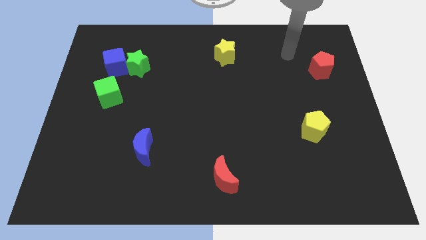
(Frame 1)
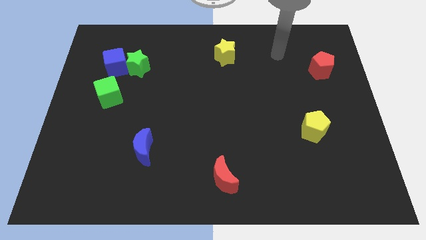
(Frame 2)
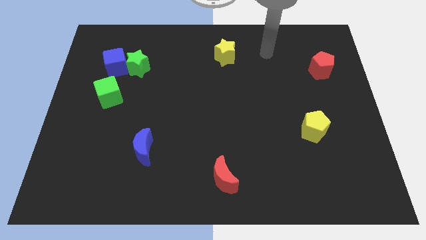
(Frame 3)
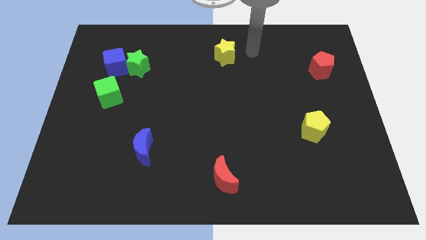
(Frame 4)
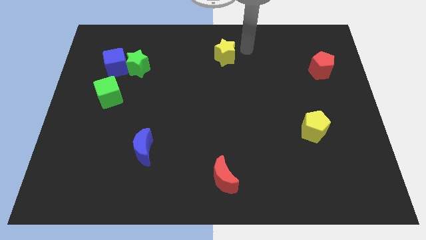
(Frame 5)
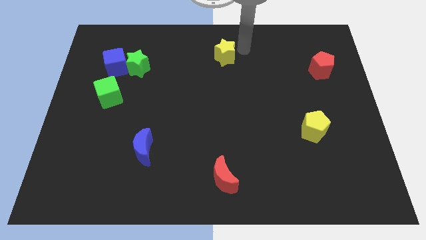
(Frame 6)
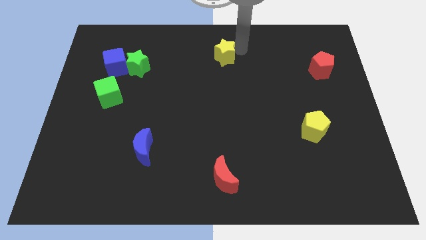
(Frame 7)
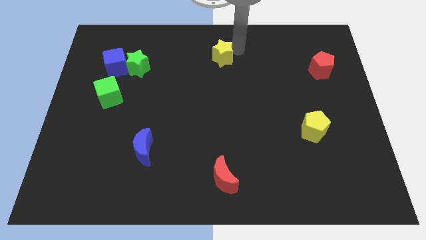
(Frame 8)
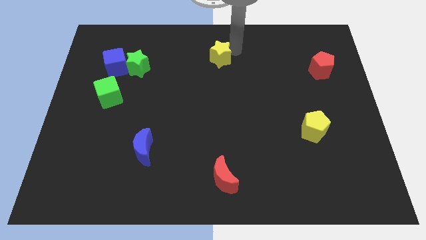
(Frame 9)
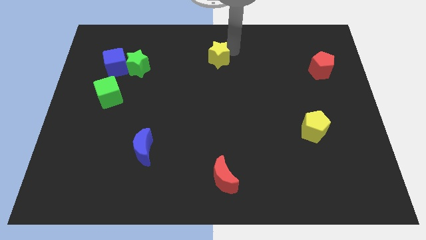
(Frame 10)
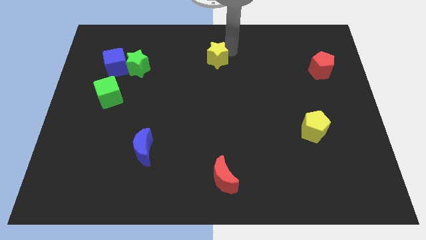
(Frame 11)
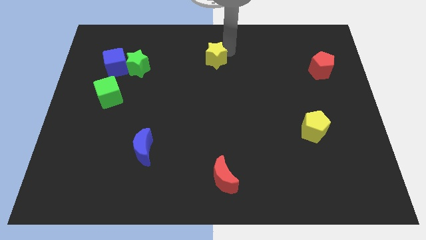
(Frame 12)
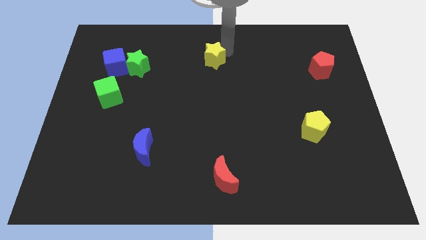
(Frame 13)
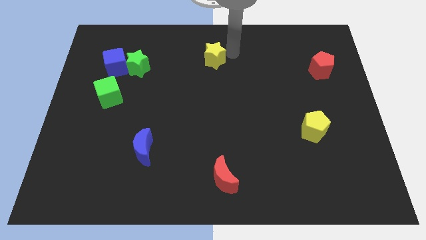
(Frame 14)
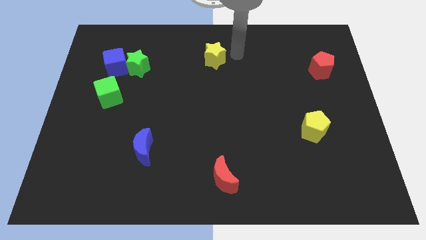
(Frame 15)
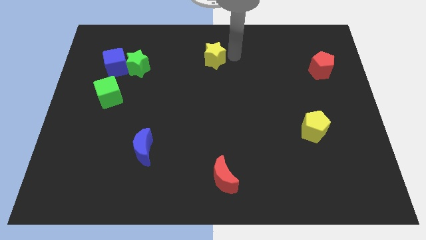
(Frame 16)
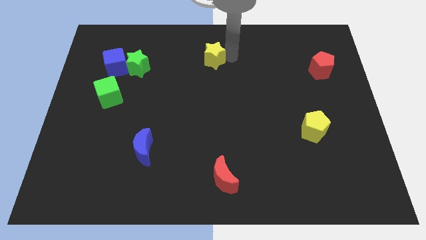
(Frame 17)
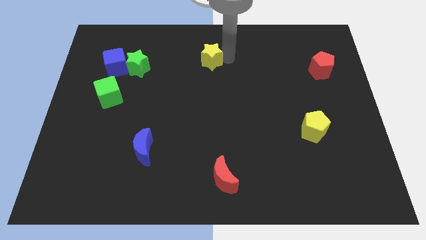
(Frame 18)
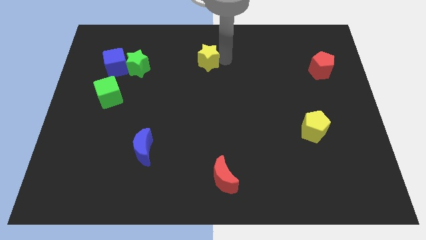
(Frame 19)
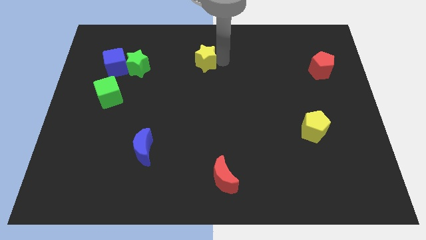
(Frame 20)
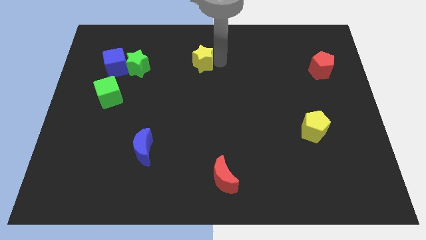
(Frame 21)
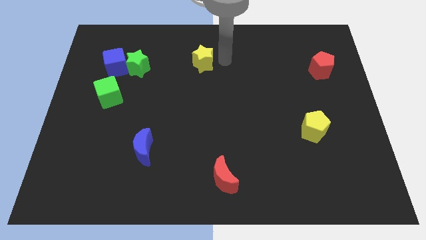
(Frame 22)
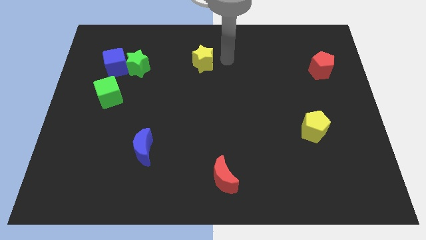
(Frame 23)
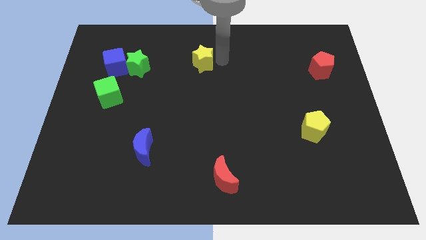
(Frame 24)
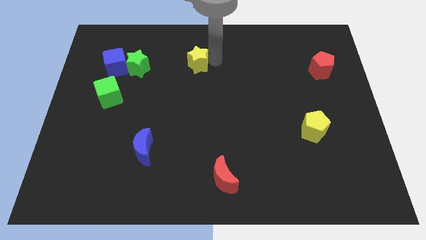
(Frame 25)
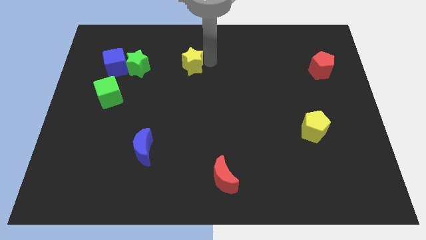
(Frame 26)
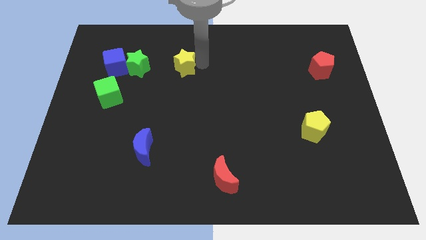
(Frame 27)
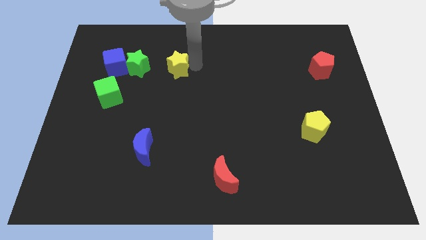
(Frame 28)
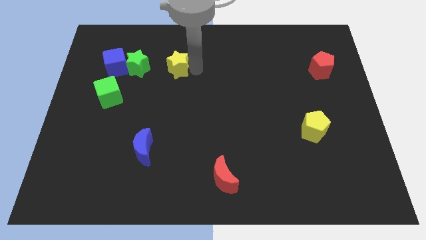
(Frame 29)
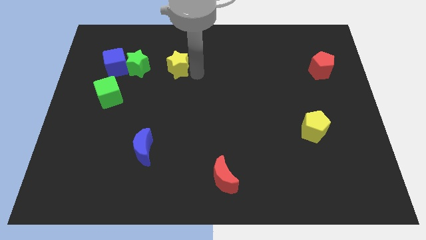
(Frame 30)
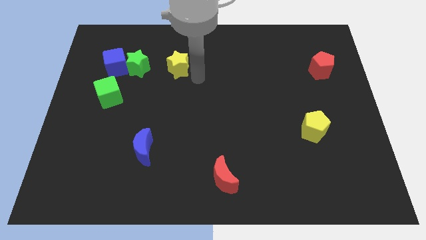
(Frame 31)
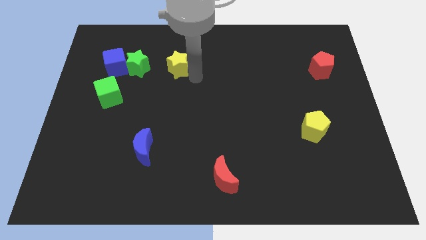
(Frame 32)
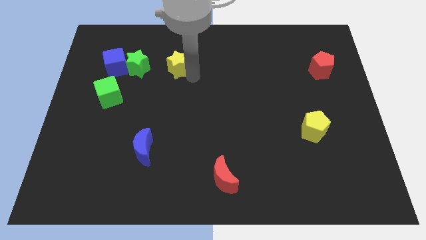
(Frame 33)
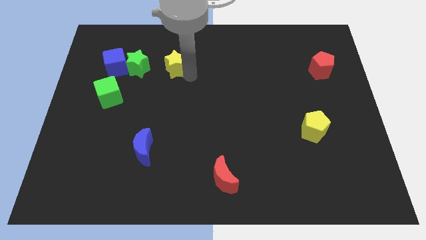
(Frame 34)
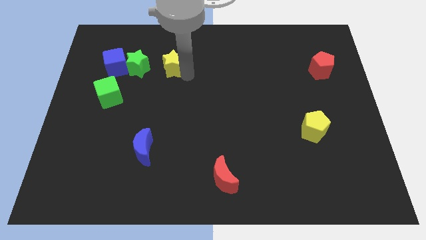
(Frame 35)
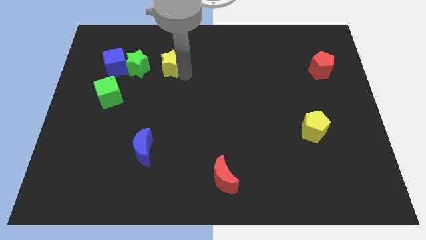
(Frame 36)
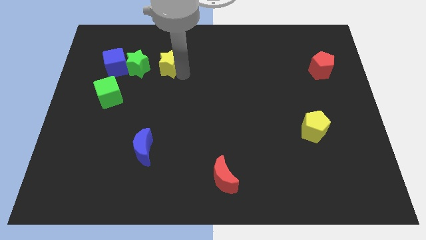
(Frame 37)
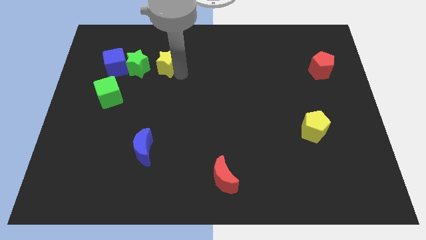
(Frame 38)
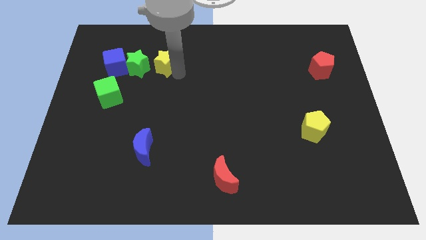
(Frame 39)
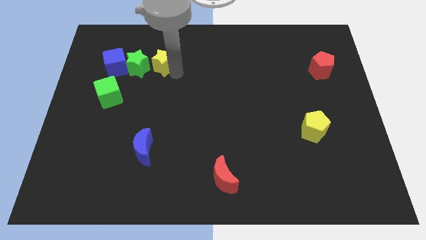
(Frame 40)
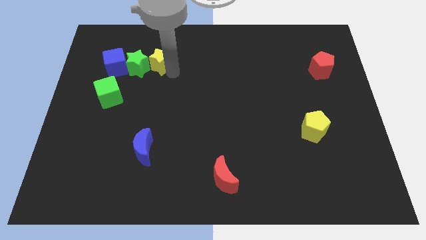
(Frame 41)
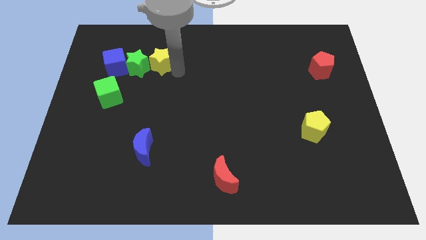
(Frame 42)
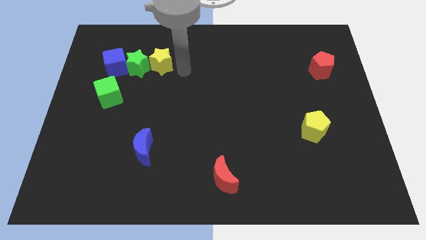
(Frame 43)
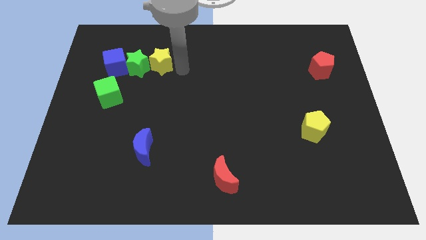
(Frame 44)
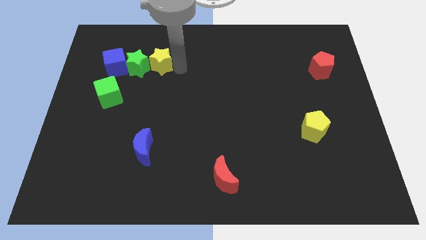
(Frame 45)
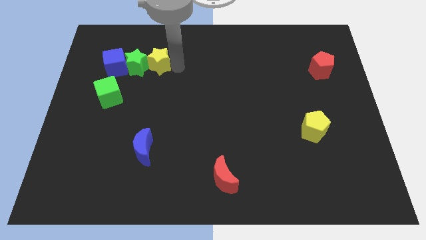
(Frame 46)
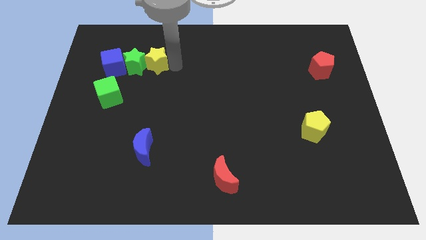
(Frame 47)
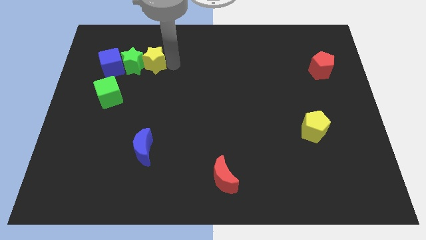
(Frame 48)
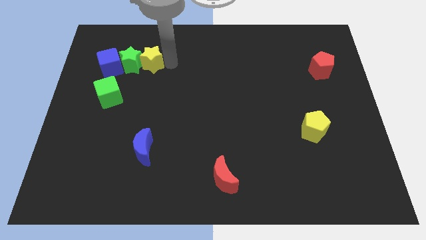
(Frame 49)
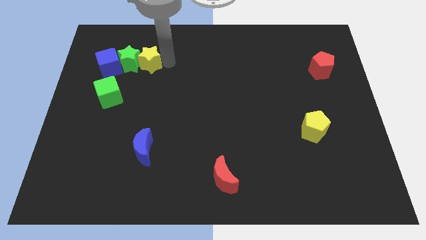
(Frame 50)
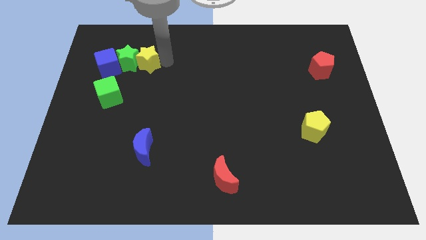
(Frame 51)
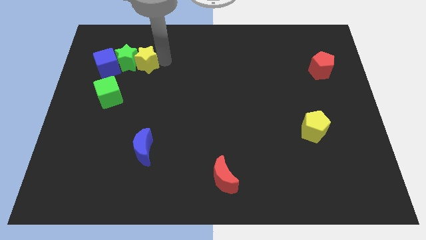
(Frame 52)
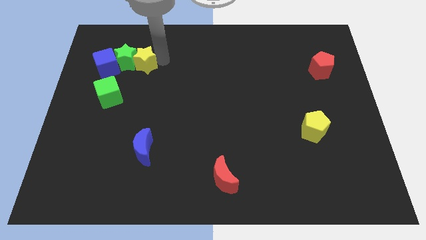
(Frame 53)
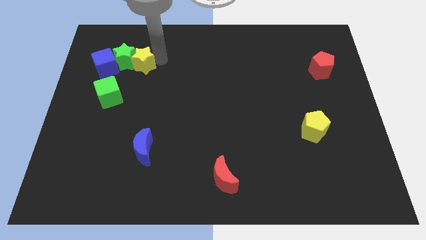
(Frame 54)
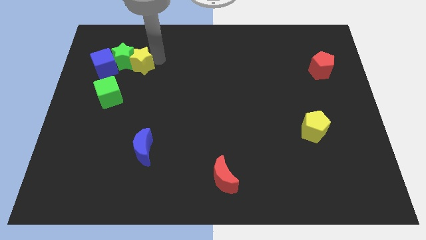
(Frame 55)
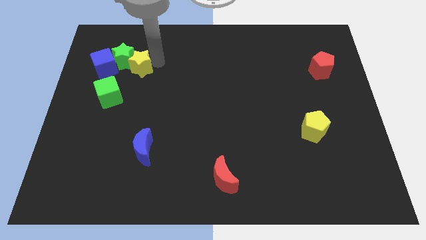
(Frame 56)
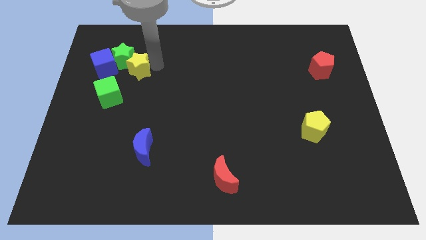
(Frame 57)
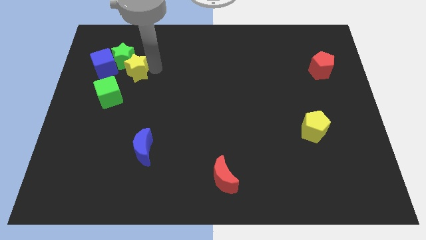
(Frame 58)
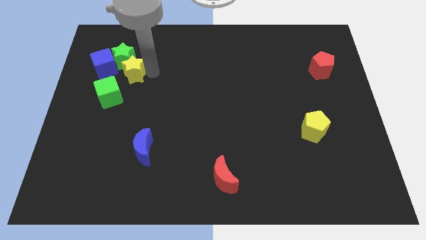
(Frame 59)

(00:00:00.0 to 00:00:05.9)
slide the yellow star above the green cube

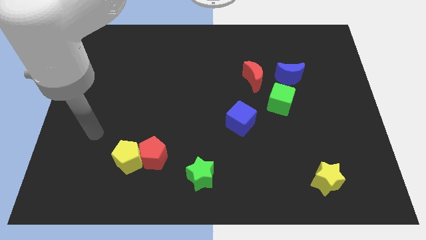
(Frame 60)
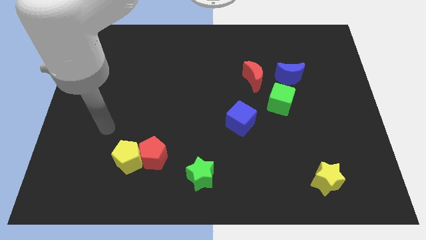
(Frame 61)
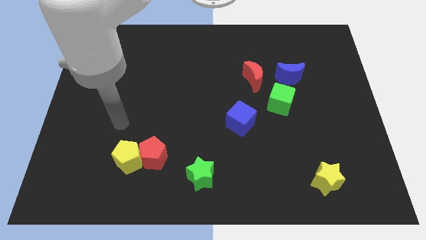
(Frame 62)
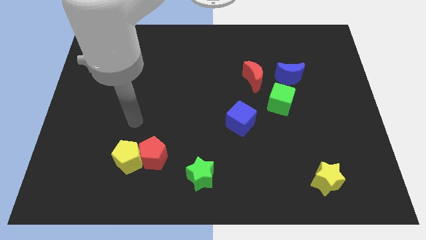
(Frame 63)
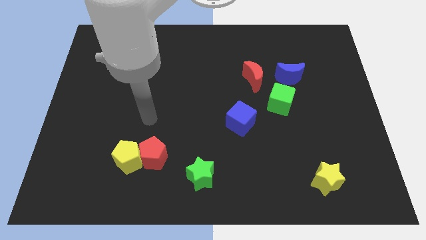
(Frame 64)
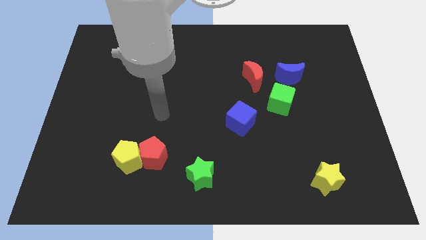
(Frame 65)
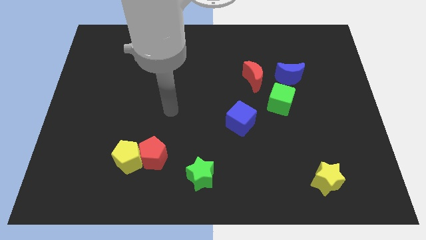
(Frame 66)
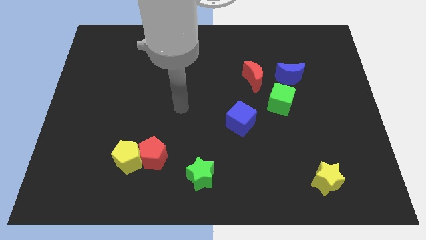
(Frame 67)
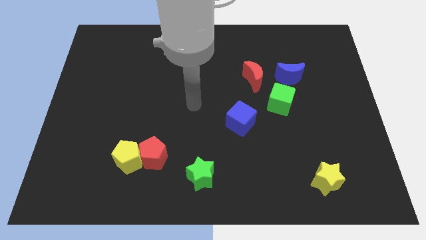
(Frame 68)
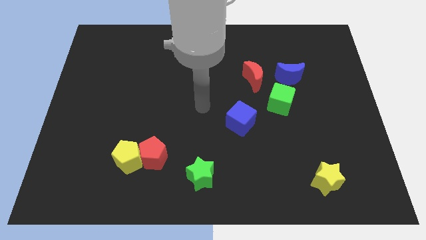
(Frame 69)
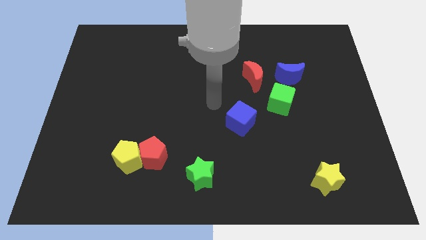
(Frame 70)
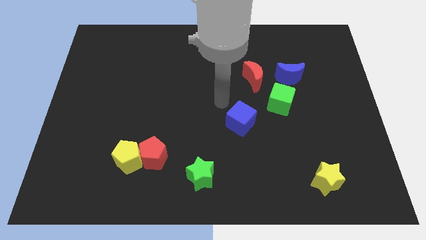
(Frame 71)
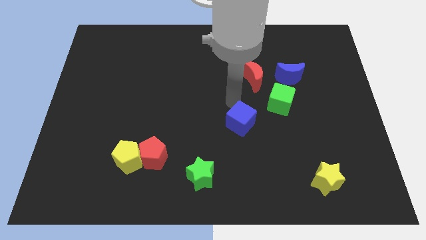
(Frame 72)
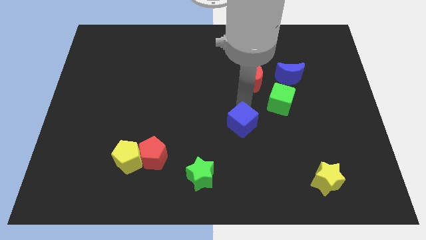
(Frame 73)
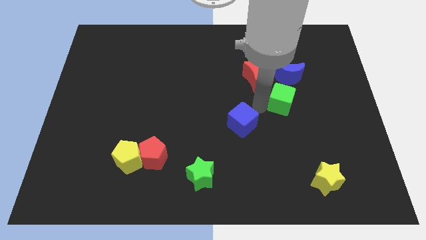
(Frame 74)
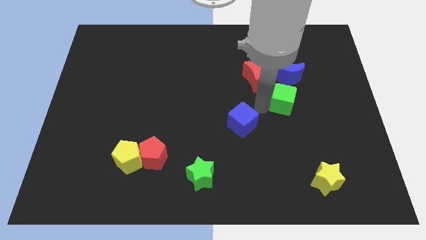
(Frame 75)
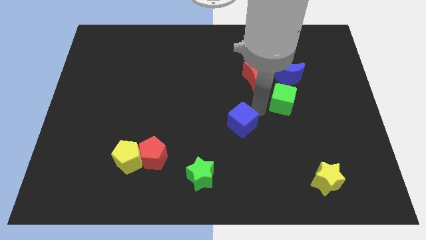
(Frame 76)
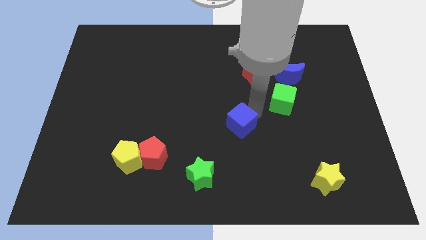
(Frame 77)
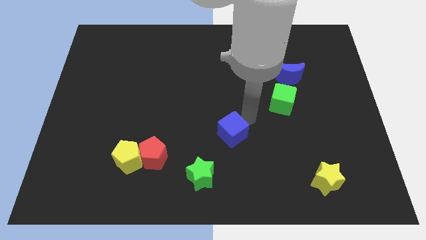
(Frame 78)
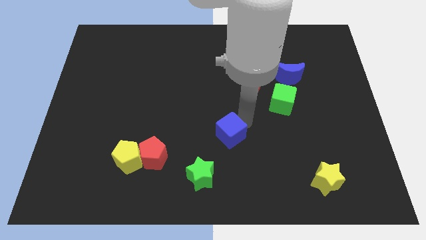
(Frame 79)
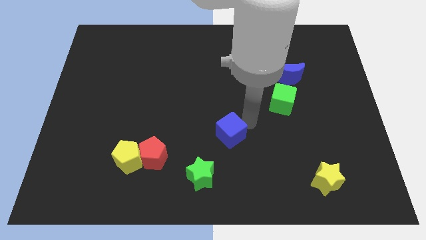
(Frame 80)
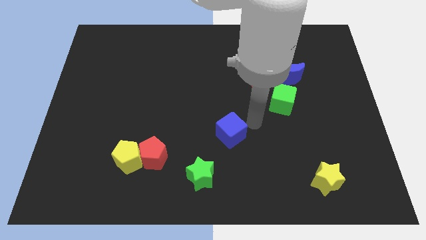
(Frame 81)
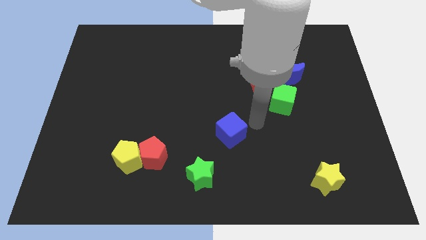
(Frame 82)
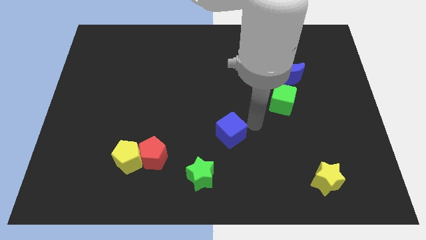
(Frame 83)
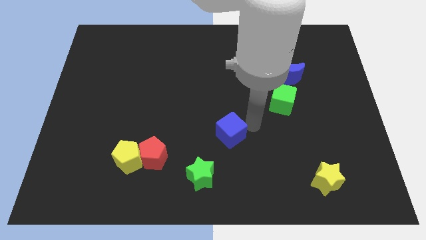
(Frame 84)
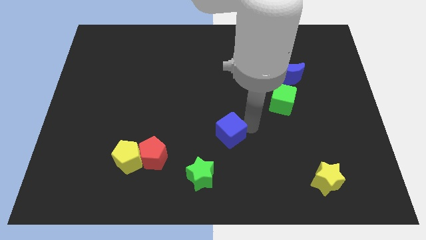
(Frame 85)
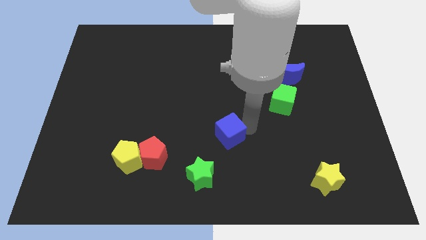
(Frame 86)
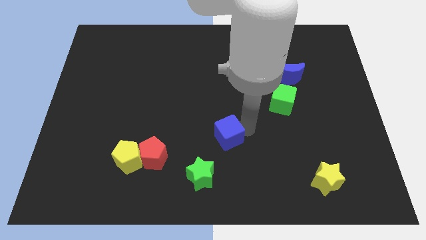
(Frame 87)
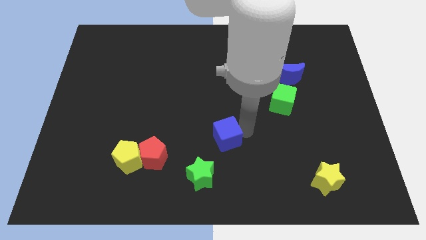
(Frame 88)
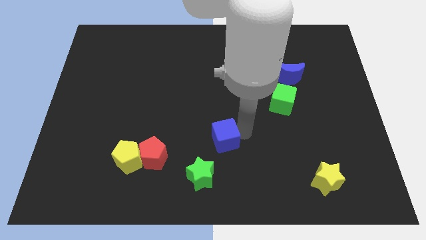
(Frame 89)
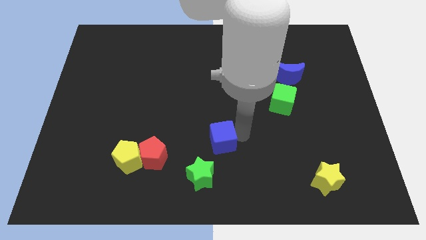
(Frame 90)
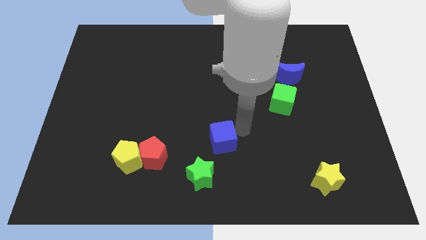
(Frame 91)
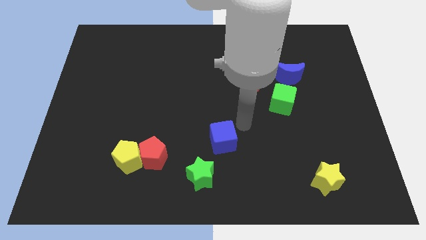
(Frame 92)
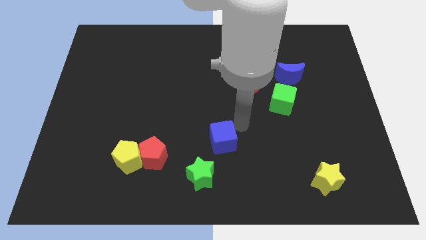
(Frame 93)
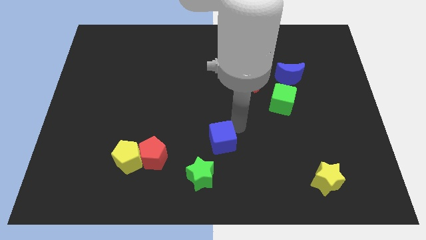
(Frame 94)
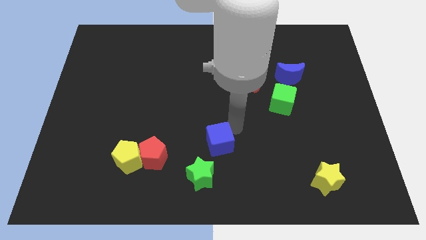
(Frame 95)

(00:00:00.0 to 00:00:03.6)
slide the blue cube just right of the red pentagon
